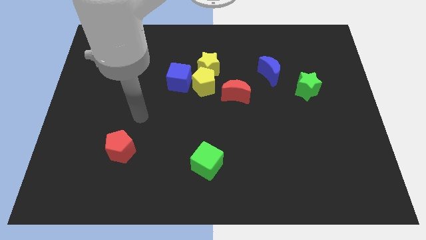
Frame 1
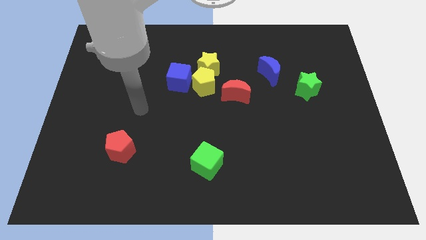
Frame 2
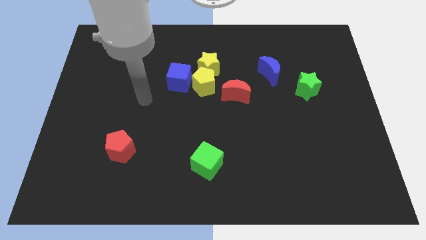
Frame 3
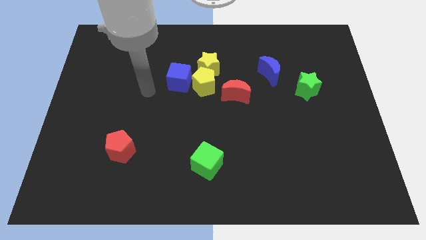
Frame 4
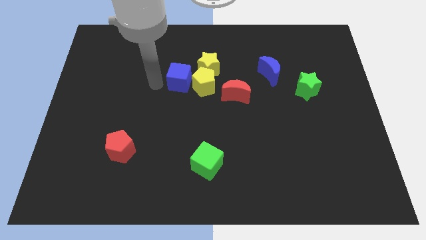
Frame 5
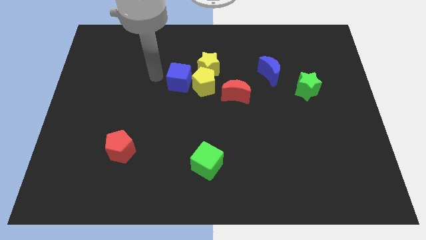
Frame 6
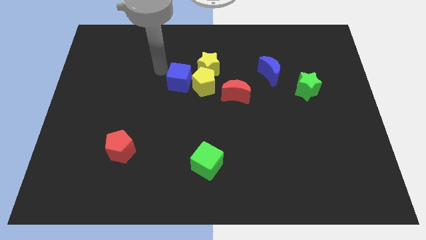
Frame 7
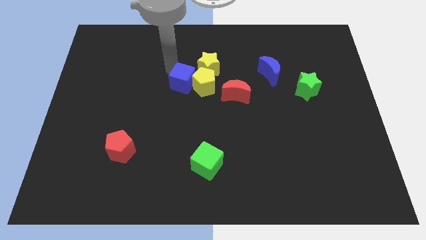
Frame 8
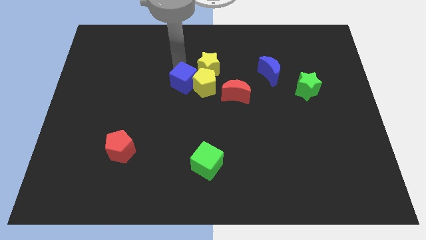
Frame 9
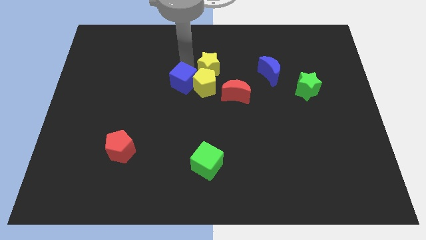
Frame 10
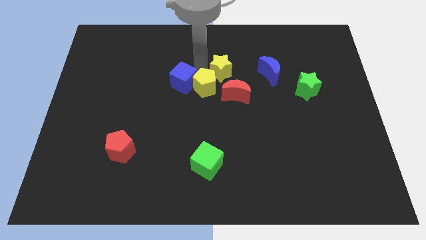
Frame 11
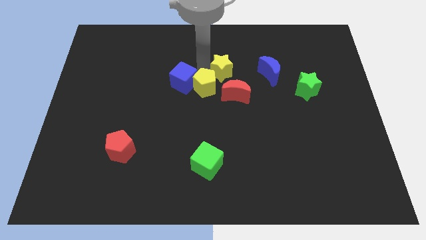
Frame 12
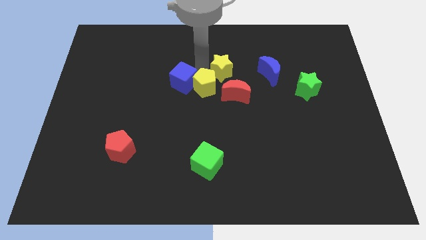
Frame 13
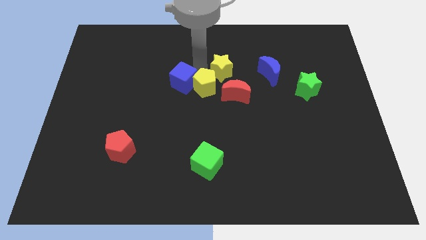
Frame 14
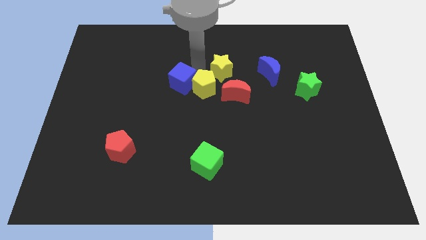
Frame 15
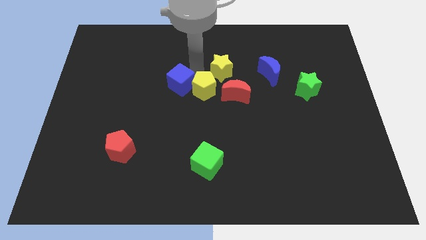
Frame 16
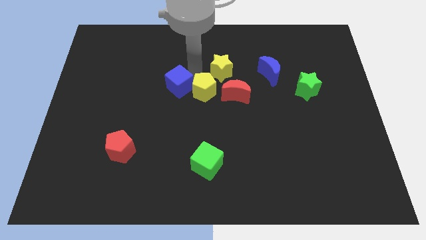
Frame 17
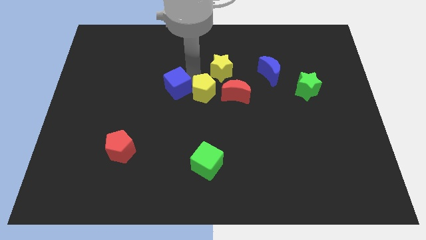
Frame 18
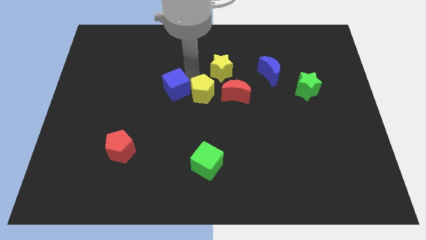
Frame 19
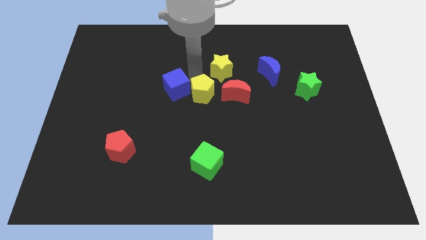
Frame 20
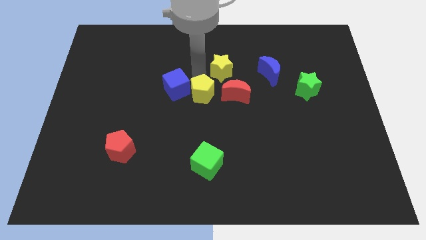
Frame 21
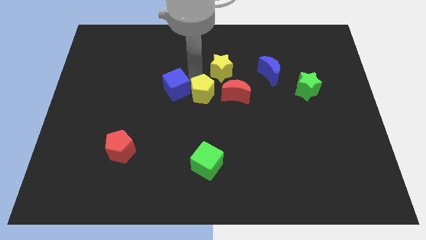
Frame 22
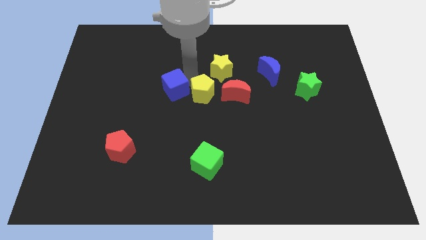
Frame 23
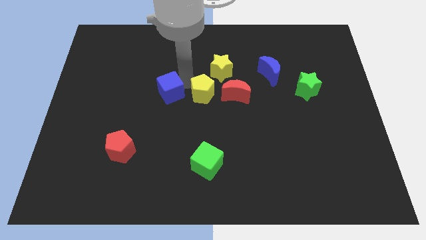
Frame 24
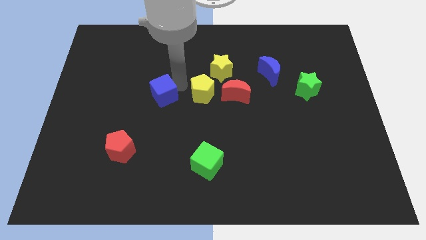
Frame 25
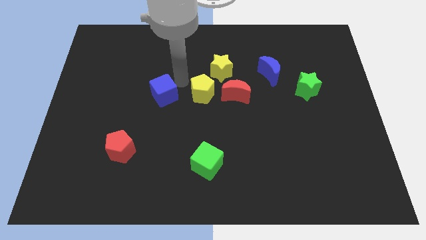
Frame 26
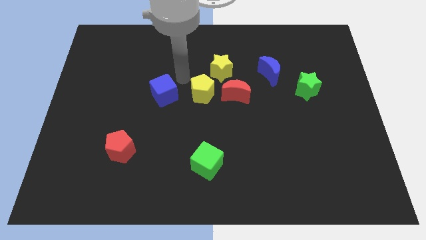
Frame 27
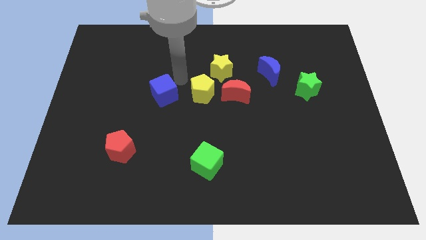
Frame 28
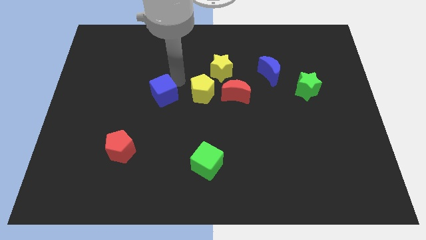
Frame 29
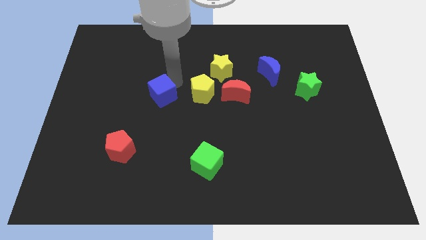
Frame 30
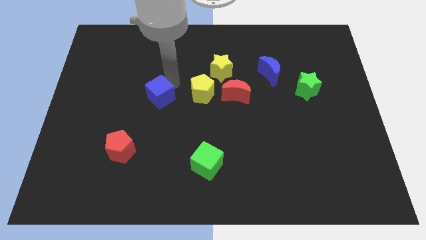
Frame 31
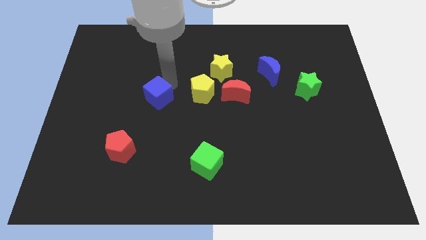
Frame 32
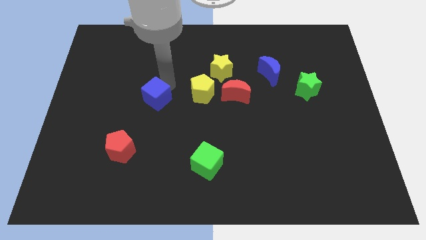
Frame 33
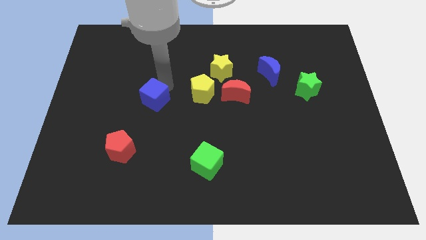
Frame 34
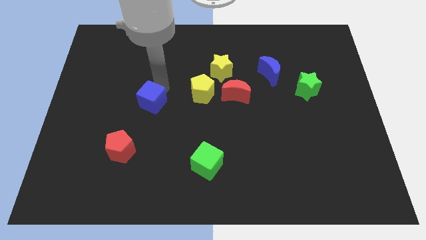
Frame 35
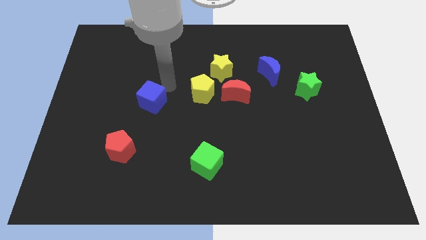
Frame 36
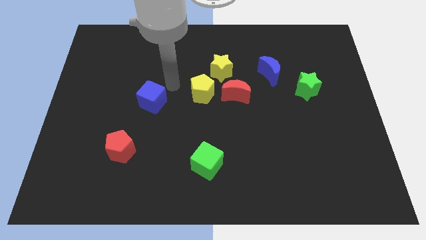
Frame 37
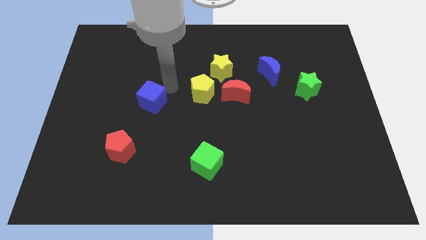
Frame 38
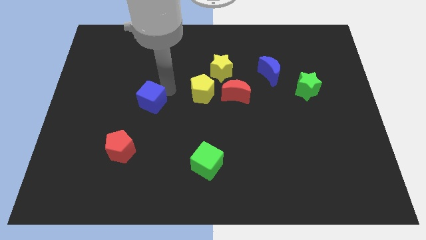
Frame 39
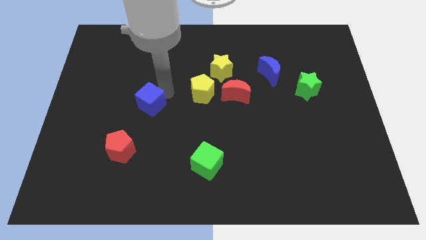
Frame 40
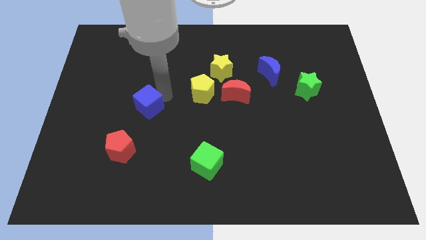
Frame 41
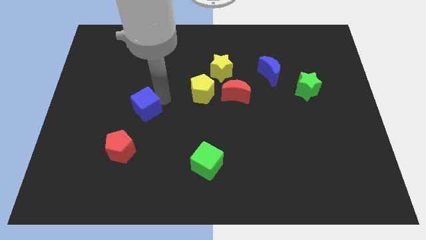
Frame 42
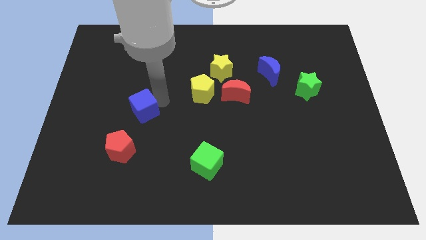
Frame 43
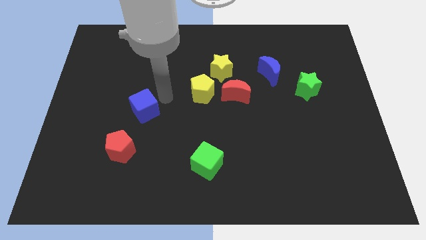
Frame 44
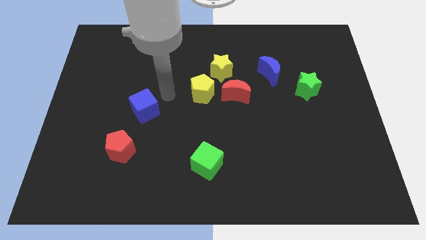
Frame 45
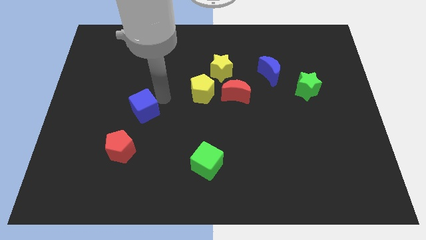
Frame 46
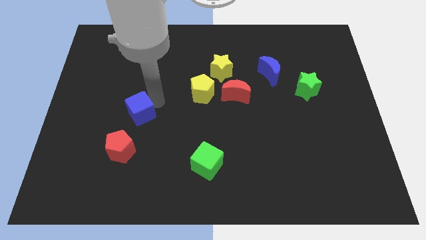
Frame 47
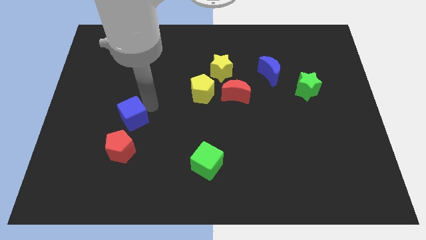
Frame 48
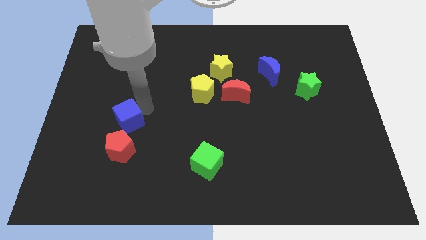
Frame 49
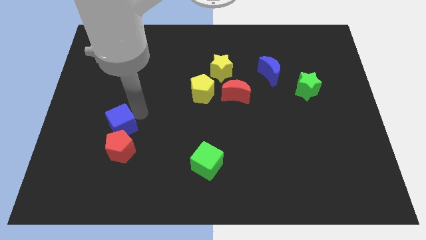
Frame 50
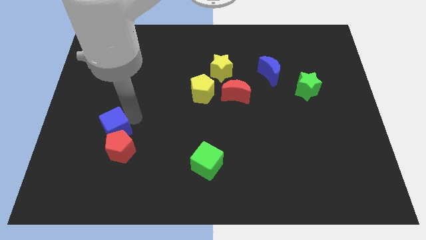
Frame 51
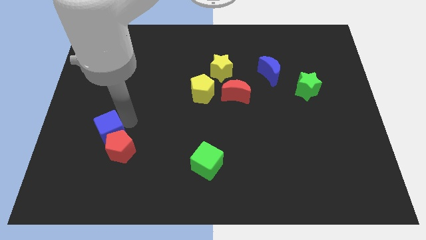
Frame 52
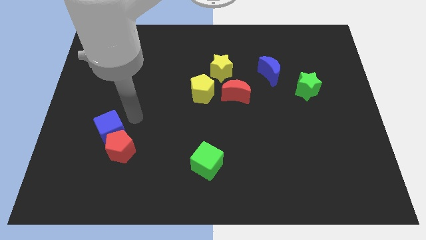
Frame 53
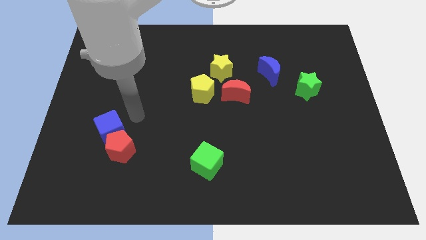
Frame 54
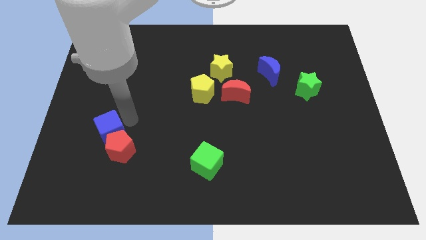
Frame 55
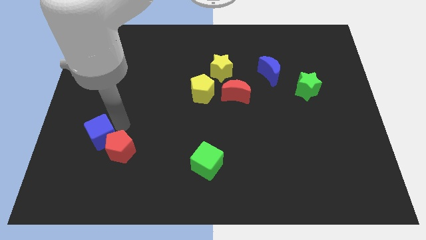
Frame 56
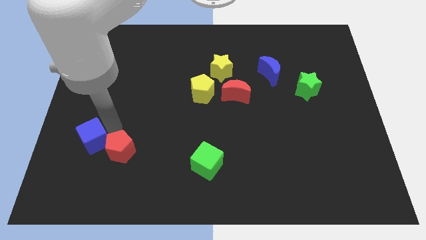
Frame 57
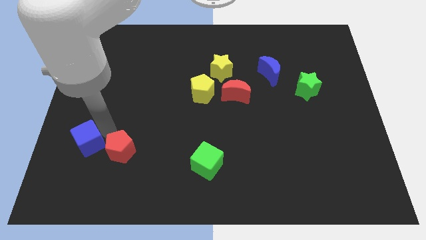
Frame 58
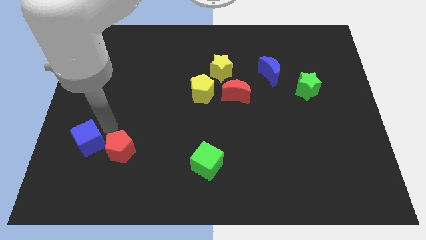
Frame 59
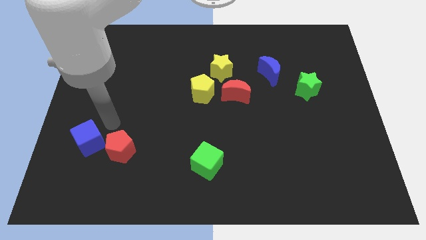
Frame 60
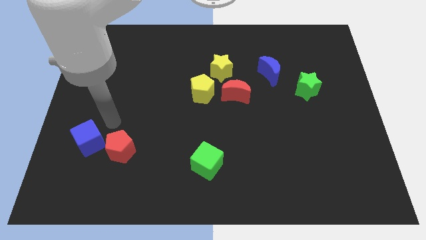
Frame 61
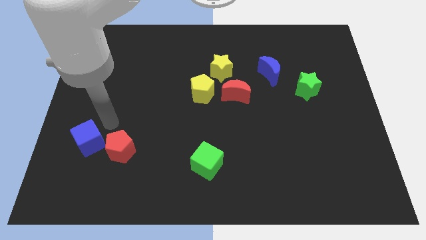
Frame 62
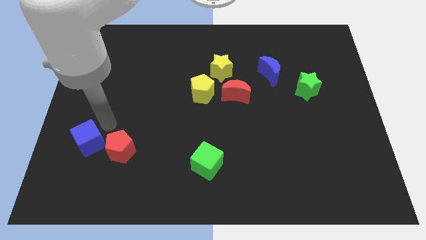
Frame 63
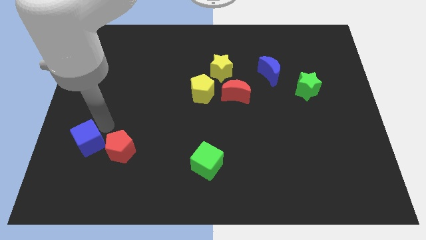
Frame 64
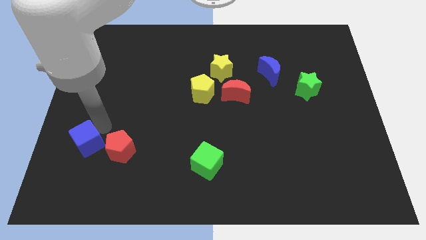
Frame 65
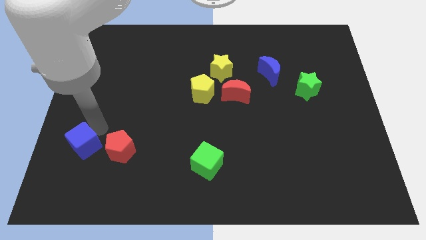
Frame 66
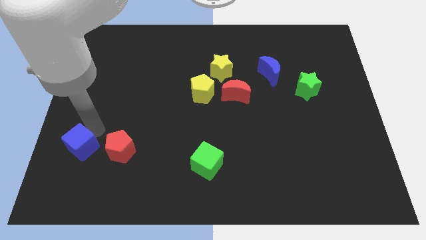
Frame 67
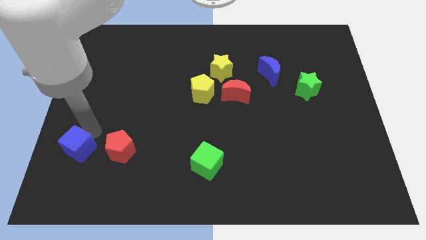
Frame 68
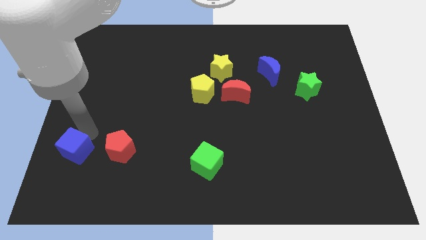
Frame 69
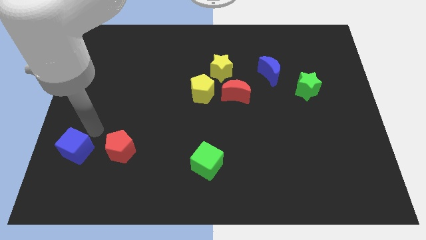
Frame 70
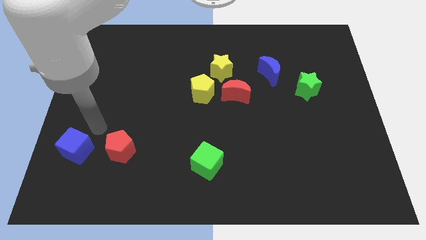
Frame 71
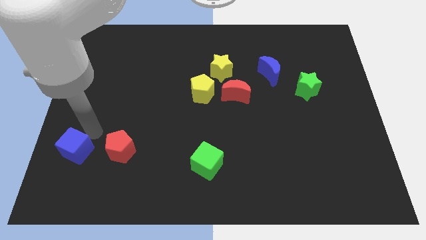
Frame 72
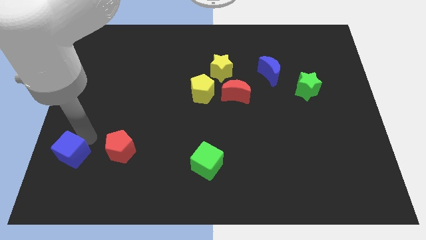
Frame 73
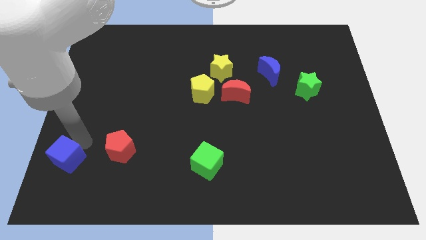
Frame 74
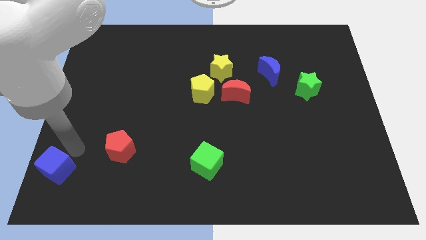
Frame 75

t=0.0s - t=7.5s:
put the blue cube to the lower left corner
